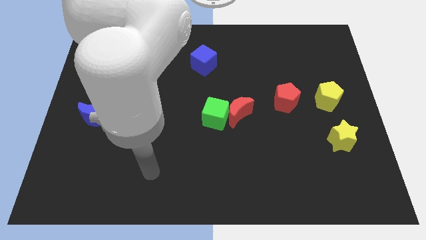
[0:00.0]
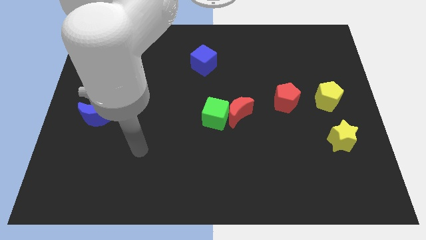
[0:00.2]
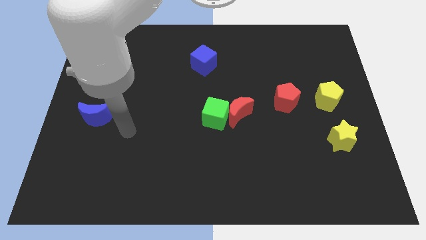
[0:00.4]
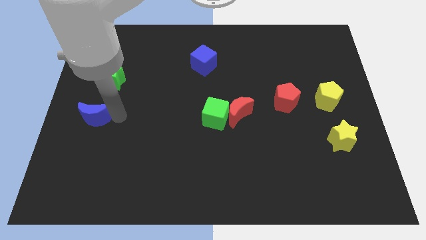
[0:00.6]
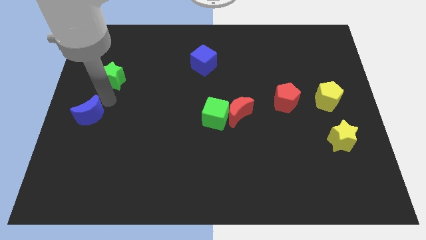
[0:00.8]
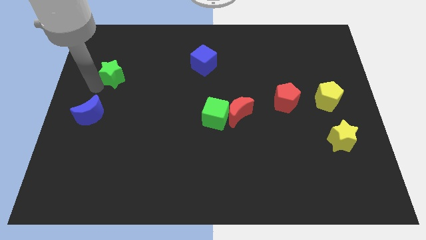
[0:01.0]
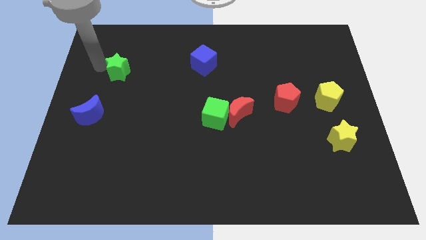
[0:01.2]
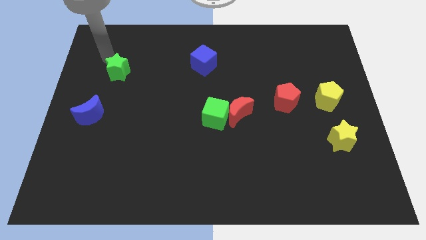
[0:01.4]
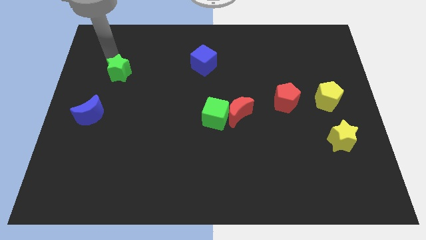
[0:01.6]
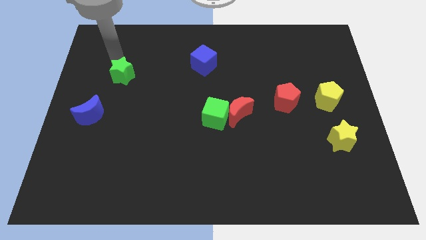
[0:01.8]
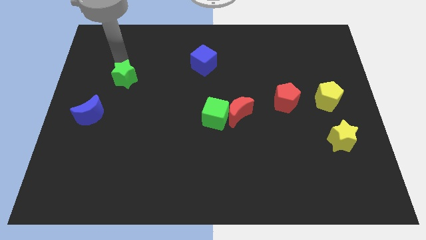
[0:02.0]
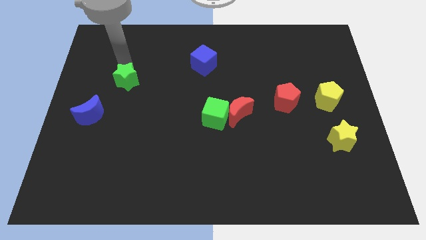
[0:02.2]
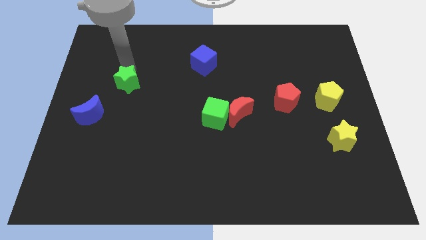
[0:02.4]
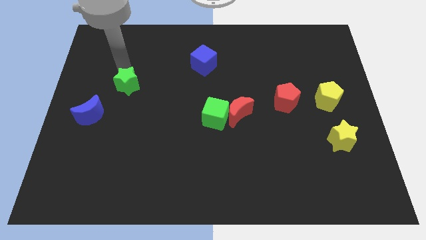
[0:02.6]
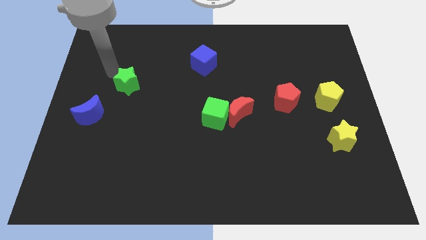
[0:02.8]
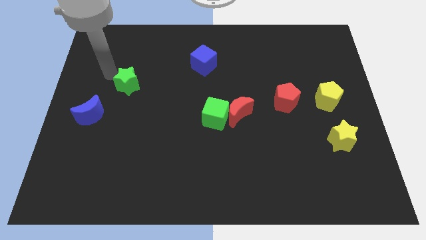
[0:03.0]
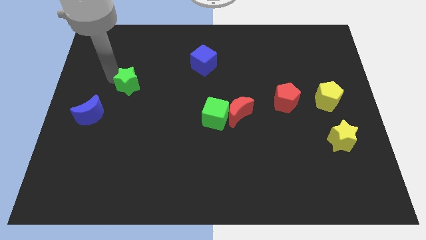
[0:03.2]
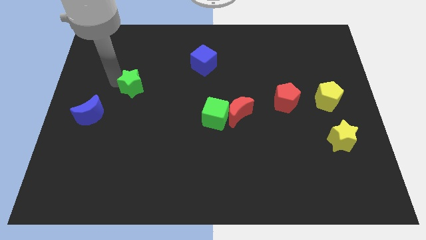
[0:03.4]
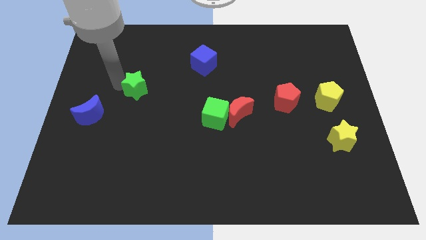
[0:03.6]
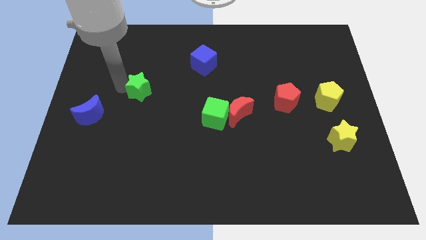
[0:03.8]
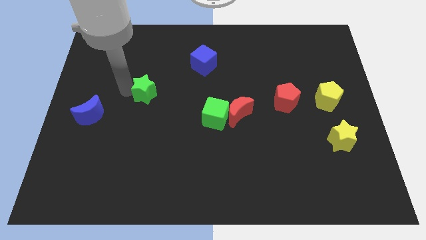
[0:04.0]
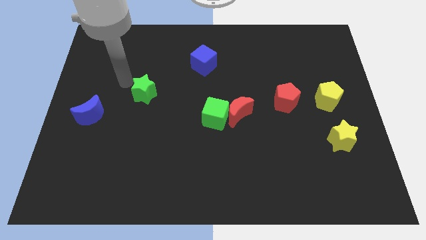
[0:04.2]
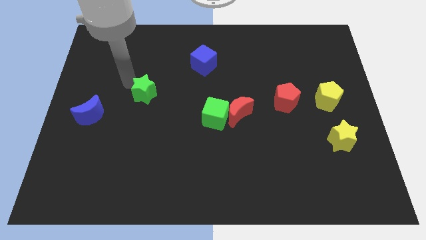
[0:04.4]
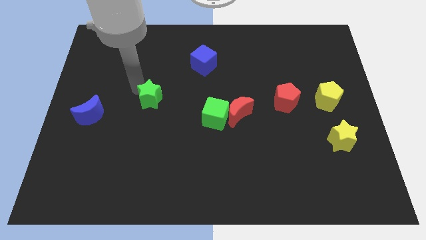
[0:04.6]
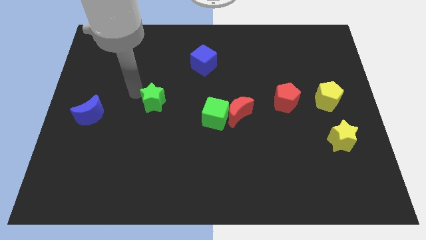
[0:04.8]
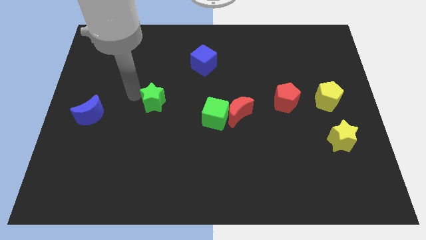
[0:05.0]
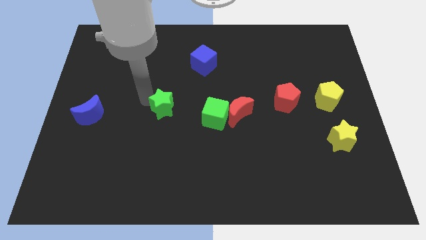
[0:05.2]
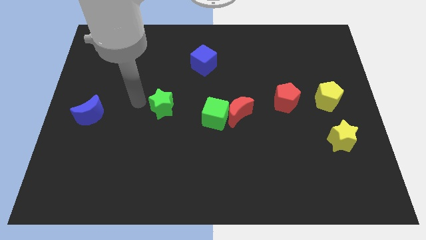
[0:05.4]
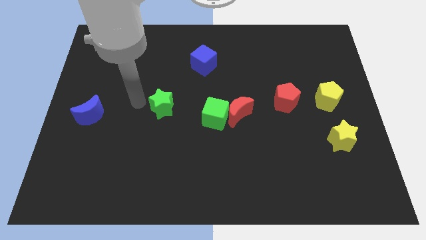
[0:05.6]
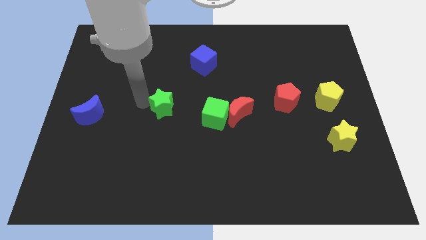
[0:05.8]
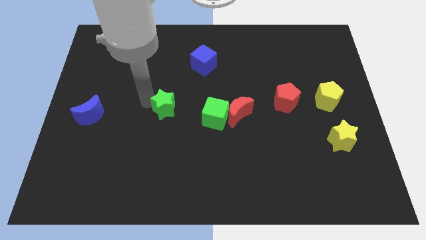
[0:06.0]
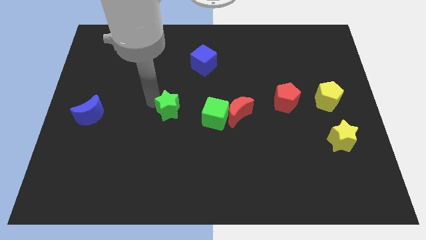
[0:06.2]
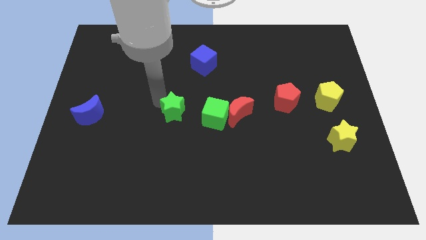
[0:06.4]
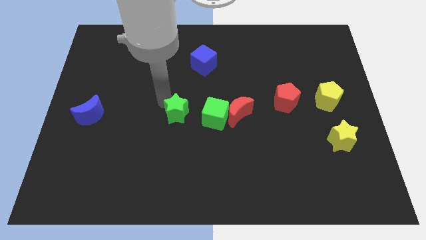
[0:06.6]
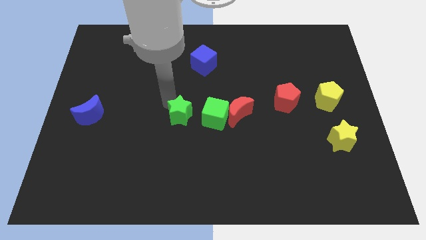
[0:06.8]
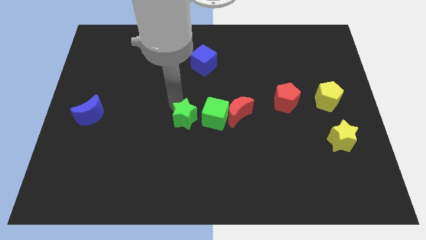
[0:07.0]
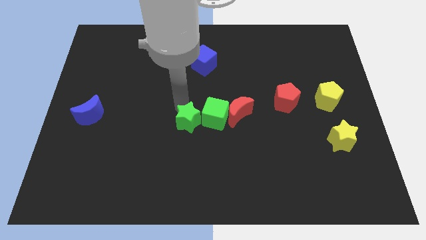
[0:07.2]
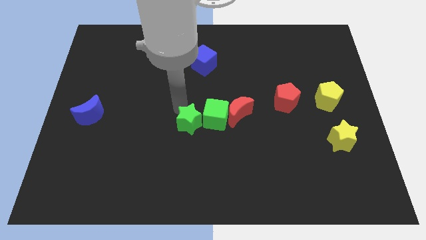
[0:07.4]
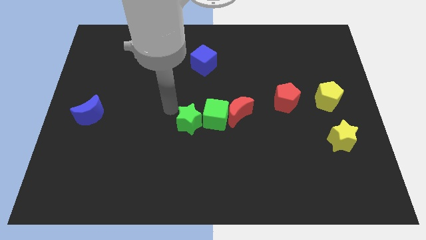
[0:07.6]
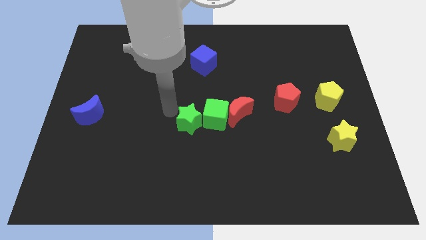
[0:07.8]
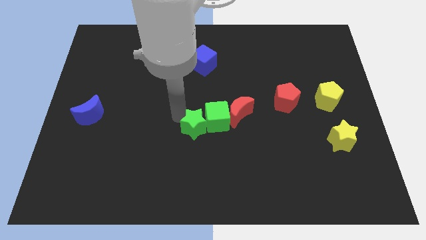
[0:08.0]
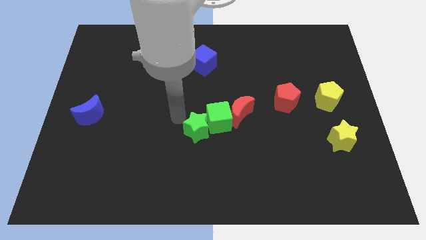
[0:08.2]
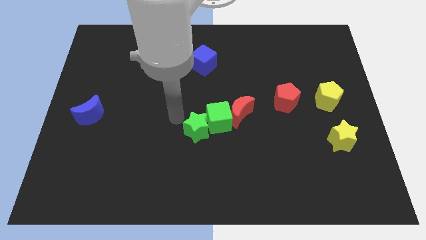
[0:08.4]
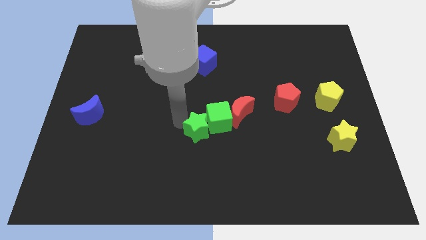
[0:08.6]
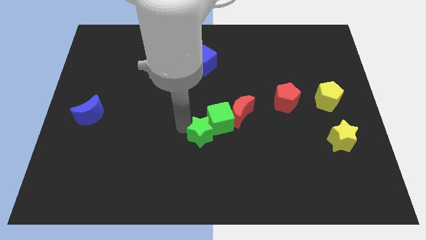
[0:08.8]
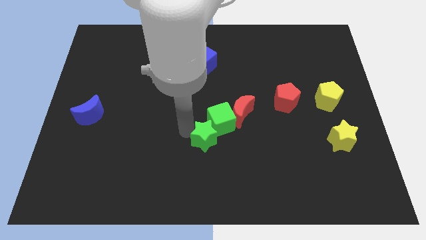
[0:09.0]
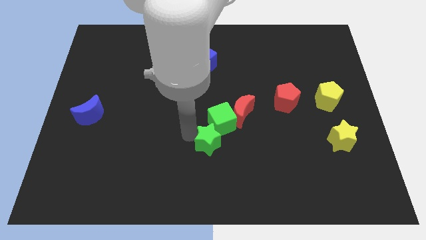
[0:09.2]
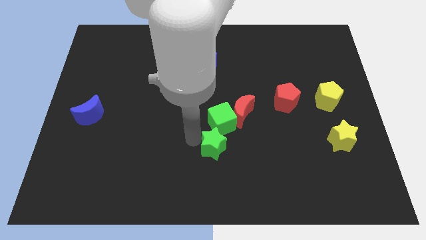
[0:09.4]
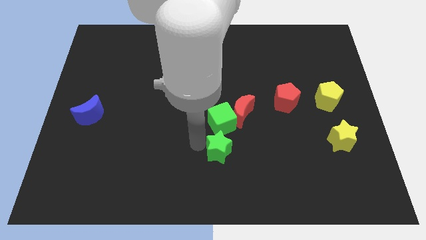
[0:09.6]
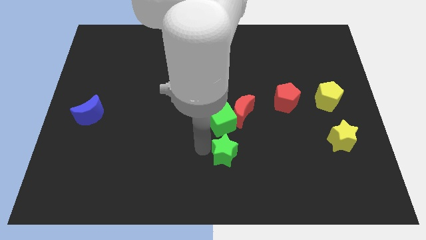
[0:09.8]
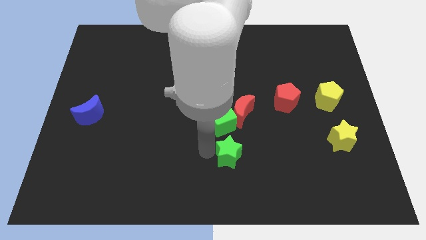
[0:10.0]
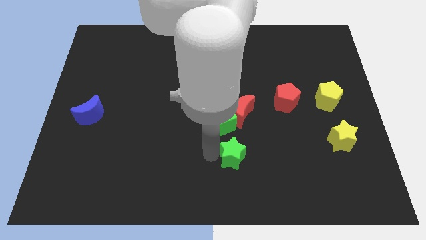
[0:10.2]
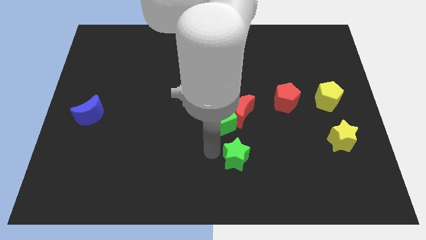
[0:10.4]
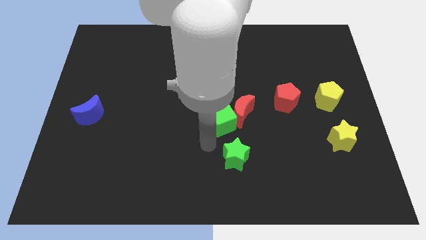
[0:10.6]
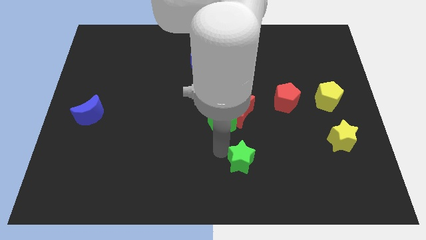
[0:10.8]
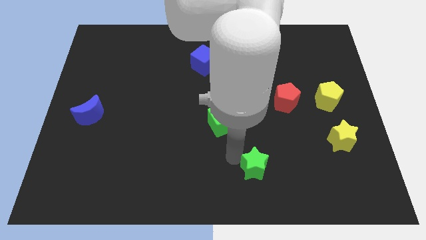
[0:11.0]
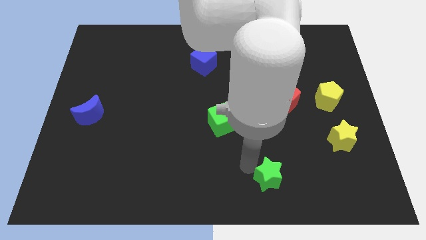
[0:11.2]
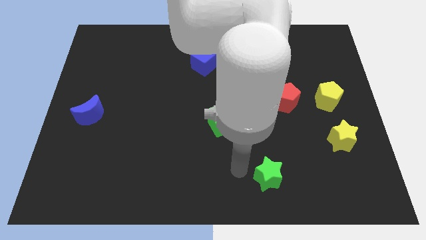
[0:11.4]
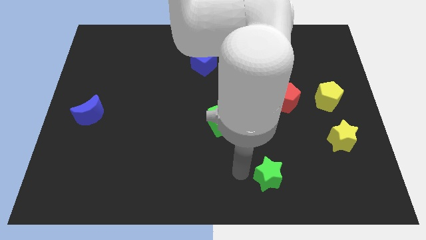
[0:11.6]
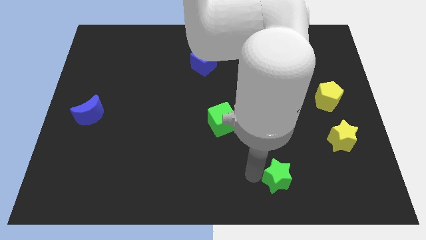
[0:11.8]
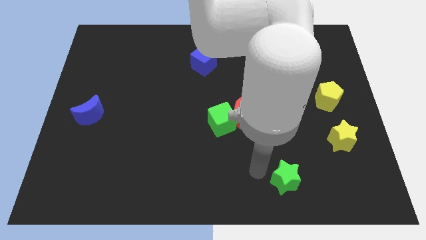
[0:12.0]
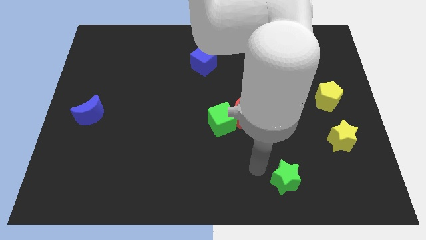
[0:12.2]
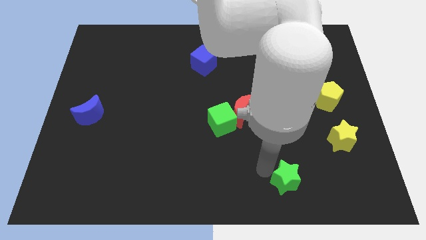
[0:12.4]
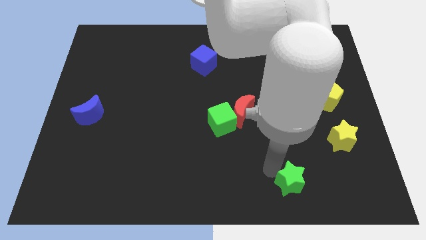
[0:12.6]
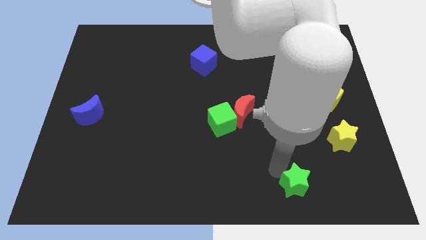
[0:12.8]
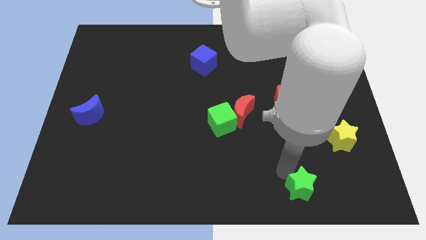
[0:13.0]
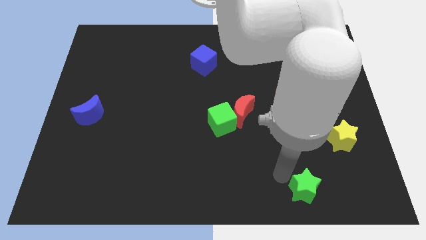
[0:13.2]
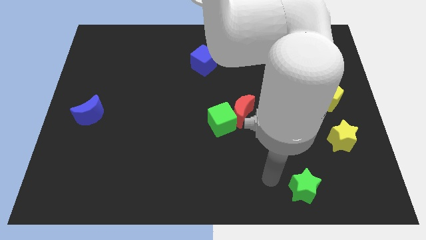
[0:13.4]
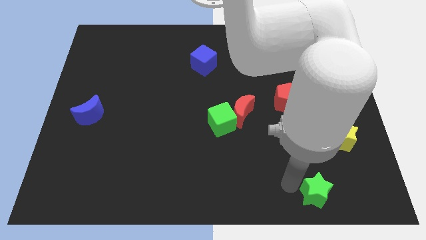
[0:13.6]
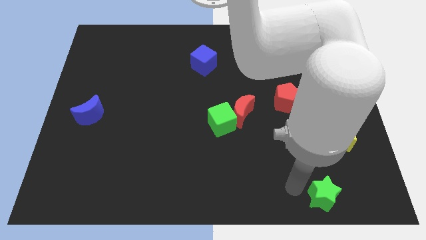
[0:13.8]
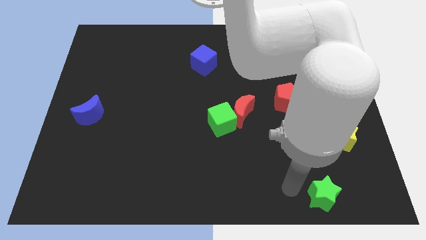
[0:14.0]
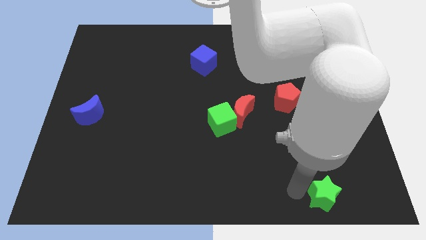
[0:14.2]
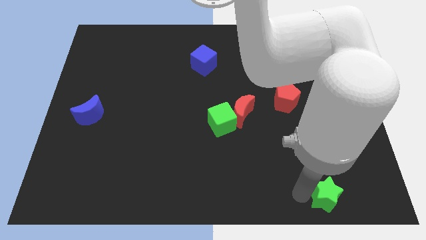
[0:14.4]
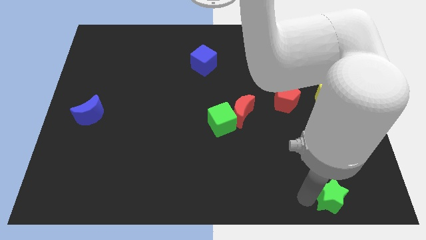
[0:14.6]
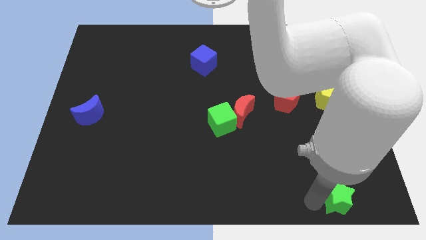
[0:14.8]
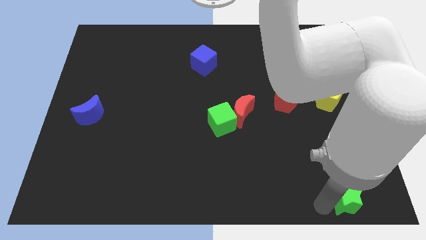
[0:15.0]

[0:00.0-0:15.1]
push the green star to the bottom right
